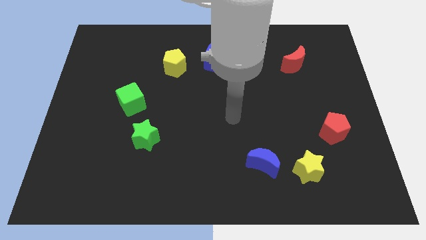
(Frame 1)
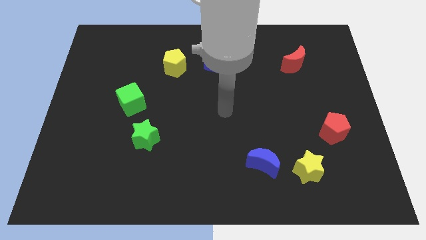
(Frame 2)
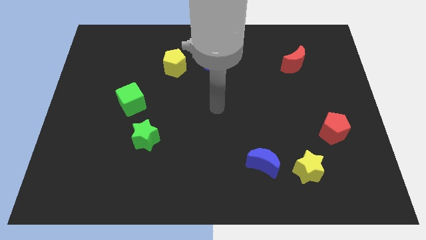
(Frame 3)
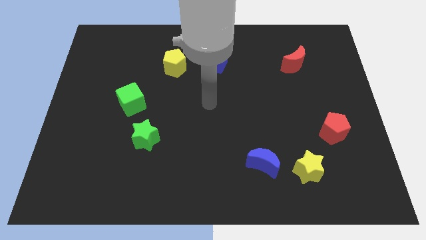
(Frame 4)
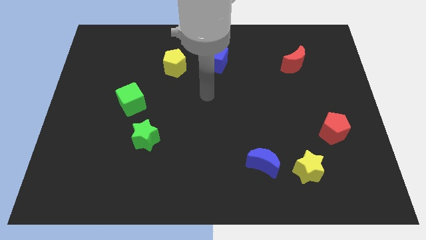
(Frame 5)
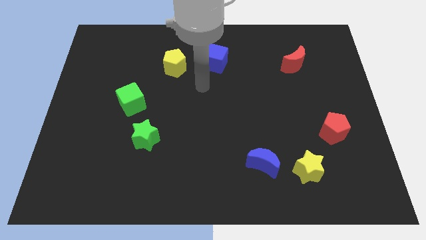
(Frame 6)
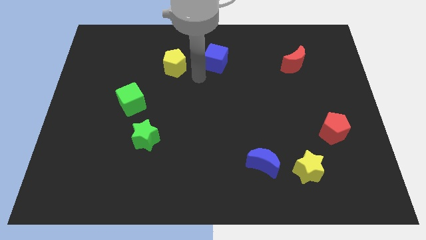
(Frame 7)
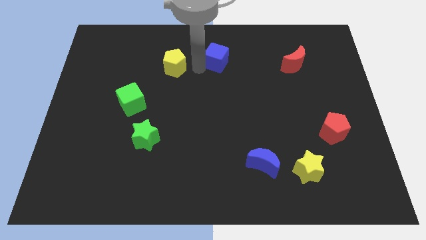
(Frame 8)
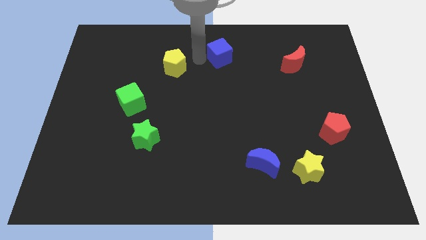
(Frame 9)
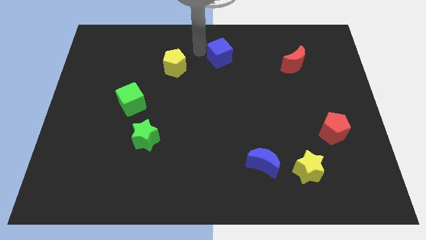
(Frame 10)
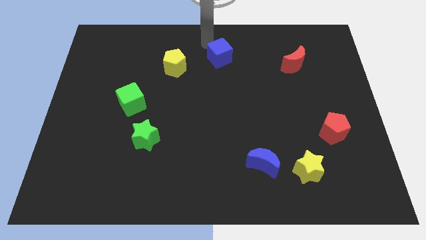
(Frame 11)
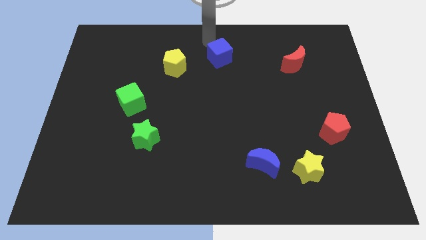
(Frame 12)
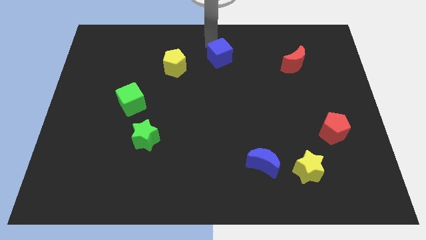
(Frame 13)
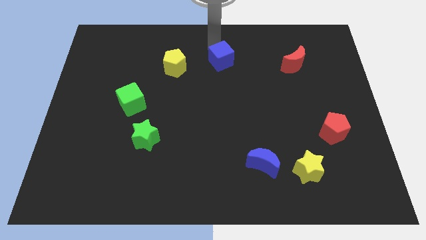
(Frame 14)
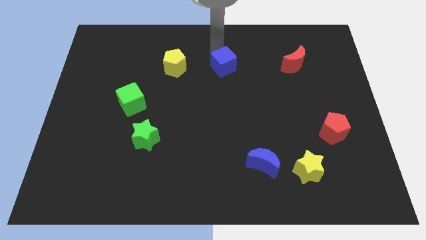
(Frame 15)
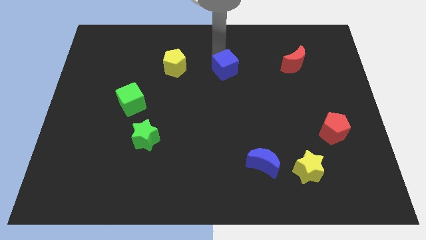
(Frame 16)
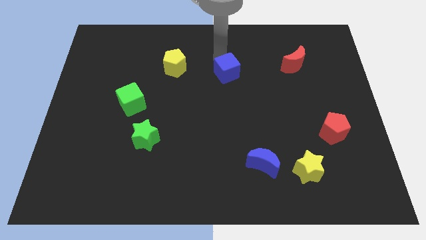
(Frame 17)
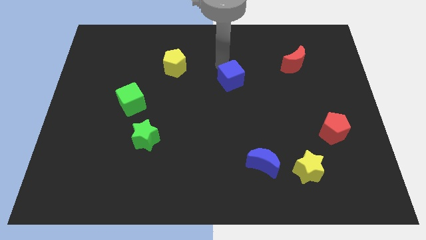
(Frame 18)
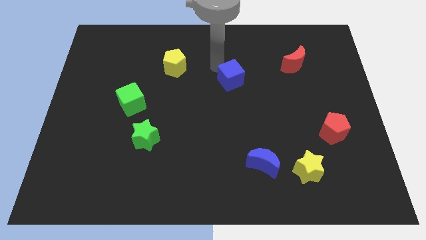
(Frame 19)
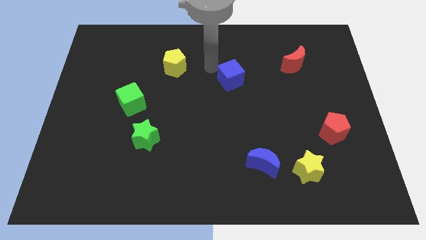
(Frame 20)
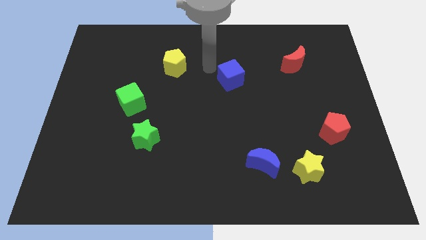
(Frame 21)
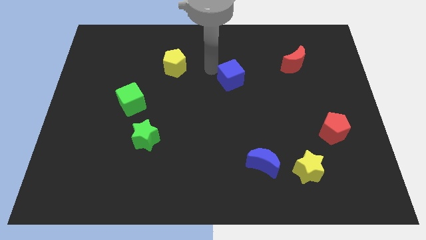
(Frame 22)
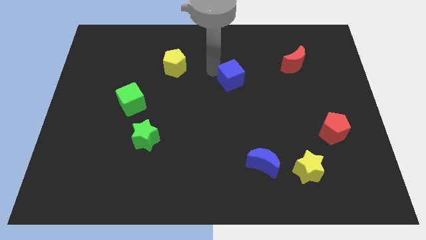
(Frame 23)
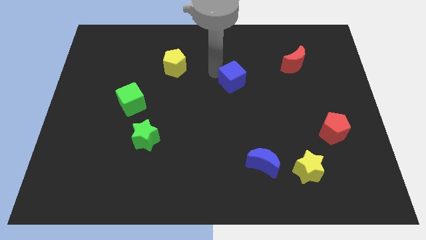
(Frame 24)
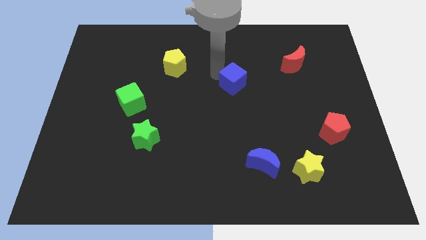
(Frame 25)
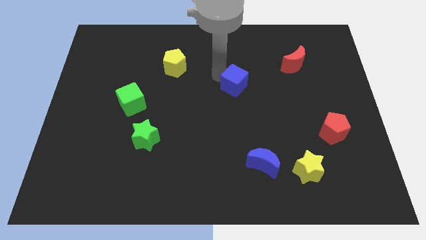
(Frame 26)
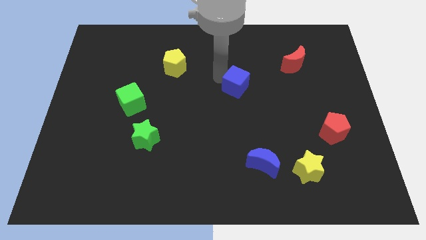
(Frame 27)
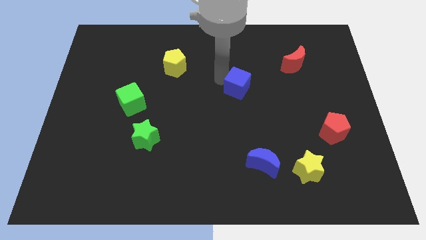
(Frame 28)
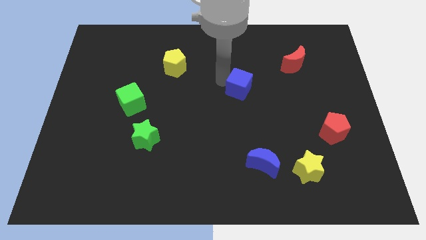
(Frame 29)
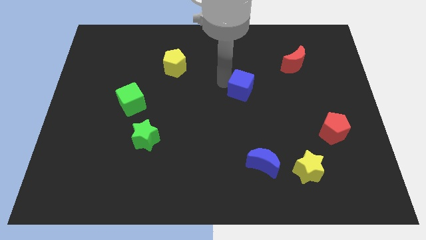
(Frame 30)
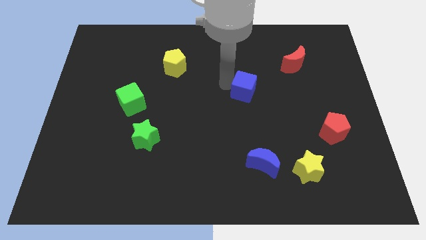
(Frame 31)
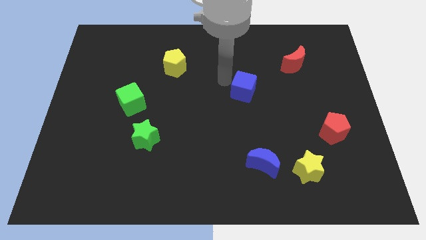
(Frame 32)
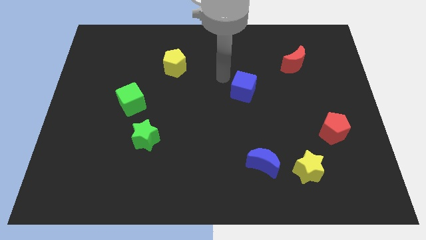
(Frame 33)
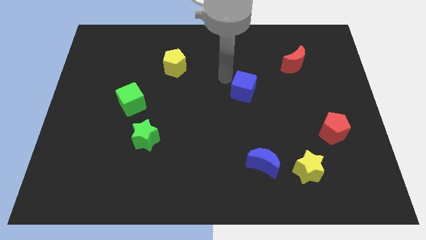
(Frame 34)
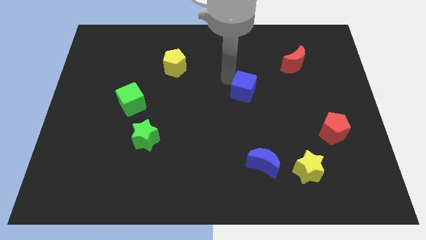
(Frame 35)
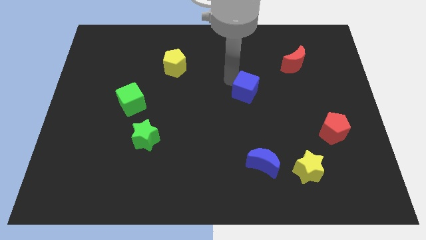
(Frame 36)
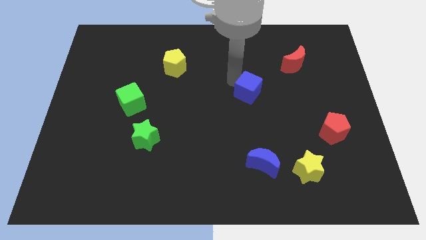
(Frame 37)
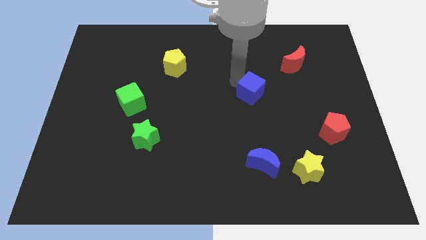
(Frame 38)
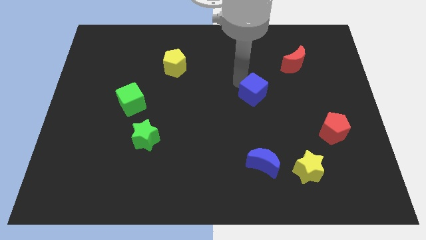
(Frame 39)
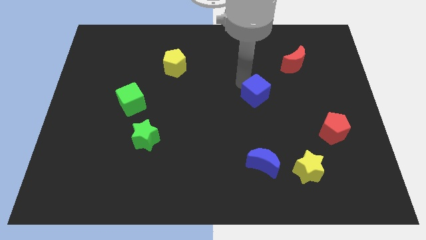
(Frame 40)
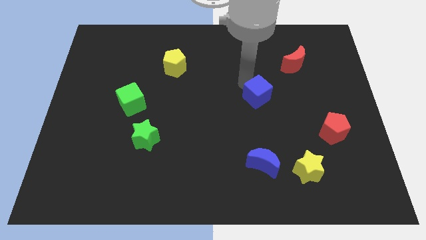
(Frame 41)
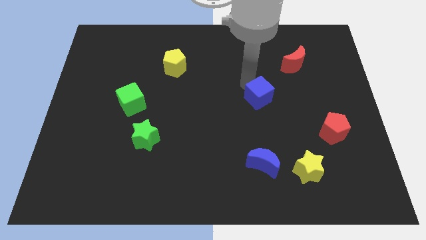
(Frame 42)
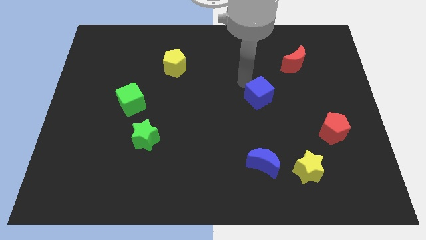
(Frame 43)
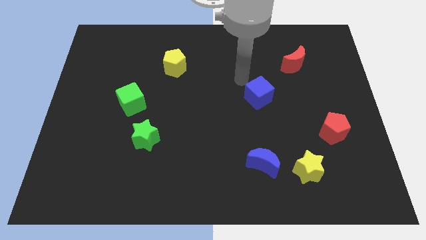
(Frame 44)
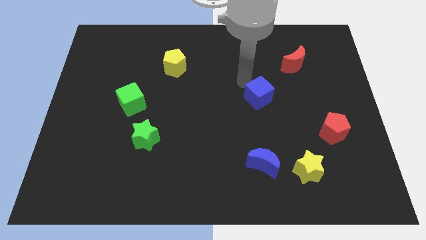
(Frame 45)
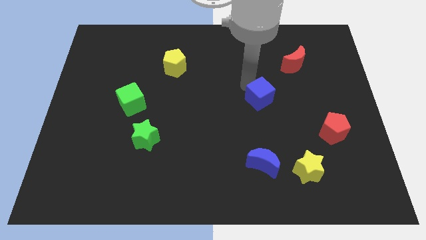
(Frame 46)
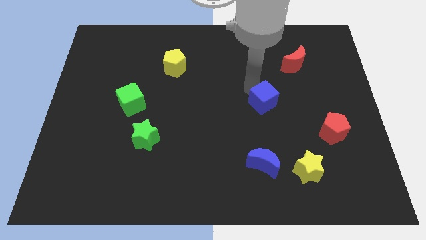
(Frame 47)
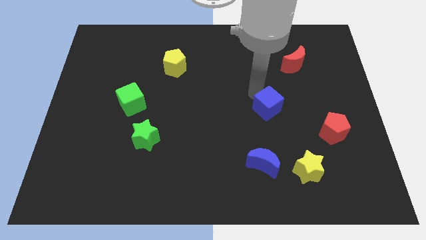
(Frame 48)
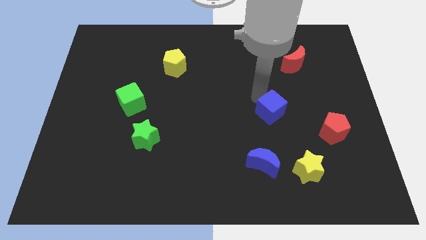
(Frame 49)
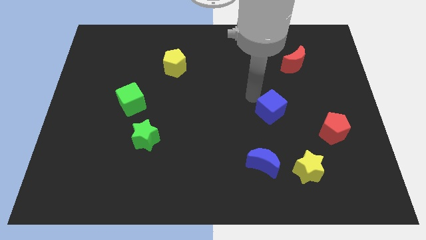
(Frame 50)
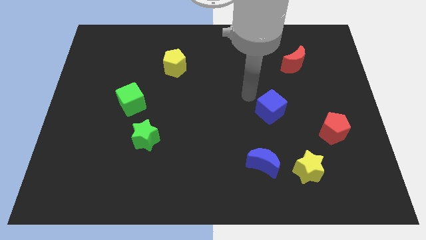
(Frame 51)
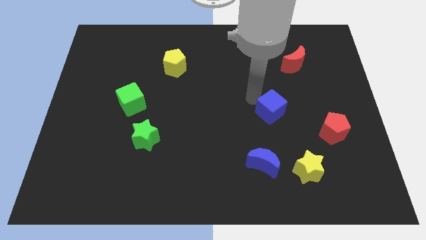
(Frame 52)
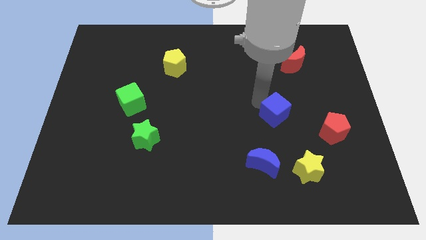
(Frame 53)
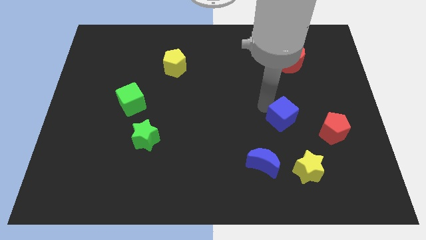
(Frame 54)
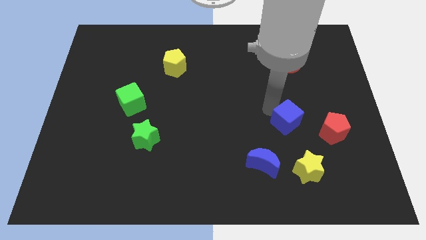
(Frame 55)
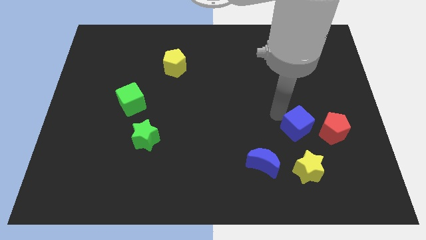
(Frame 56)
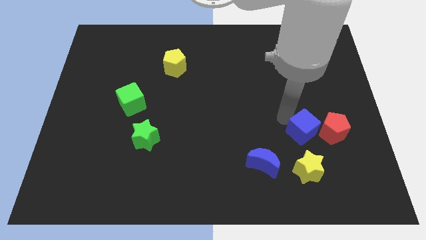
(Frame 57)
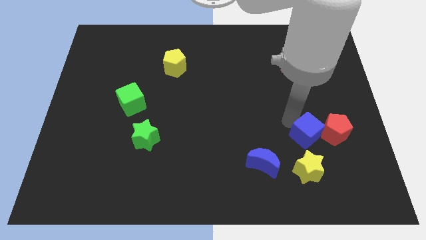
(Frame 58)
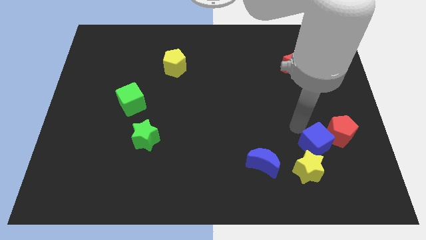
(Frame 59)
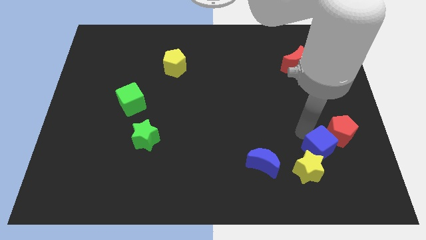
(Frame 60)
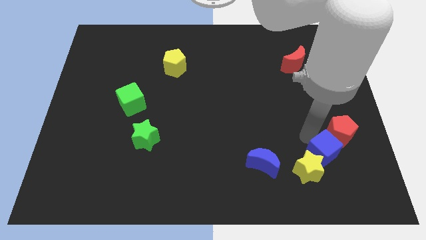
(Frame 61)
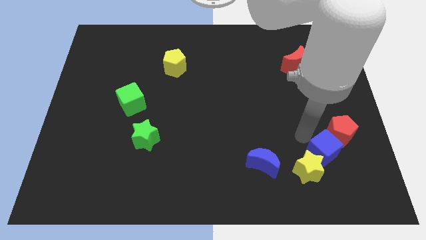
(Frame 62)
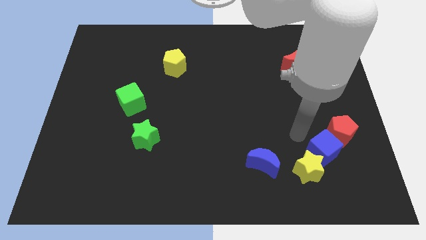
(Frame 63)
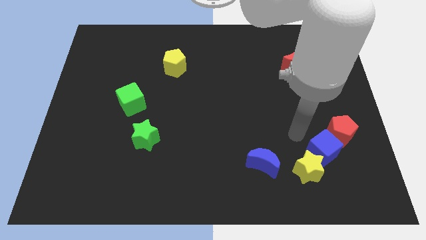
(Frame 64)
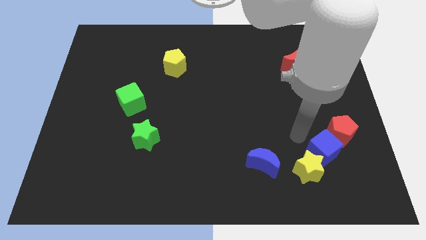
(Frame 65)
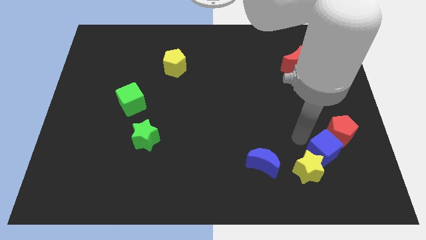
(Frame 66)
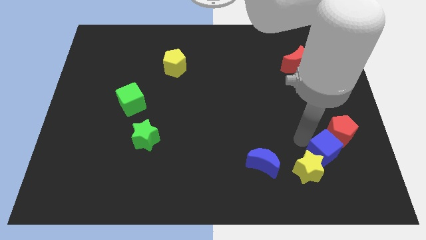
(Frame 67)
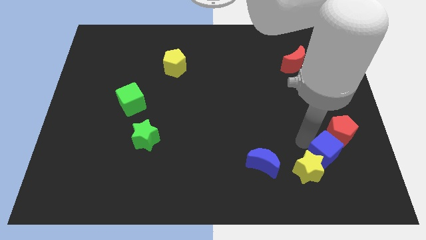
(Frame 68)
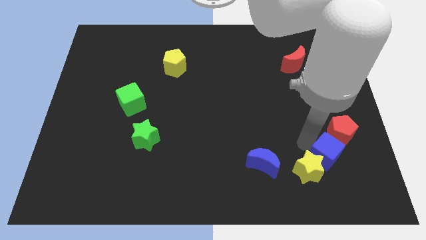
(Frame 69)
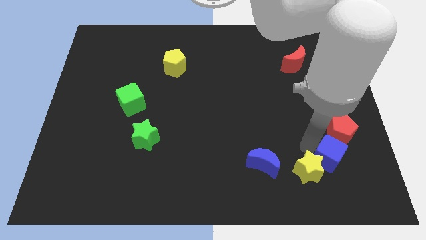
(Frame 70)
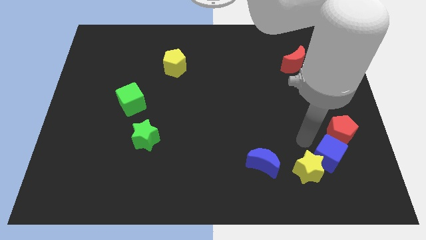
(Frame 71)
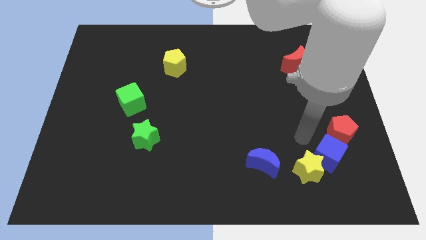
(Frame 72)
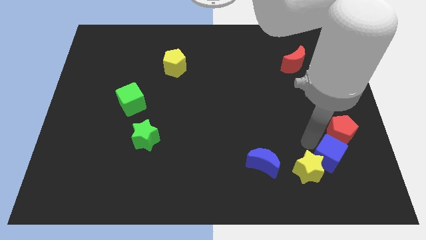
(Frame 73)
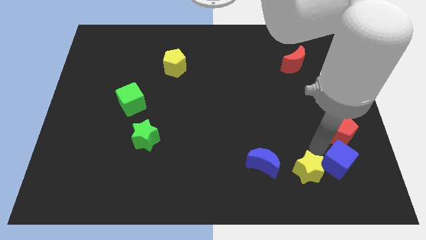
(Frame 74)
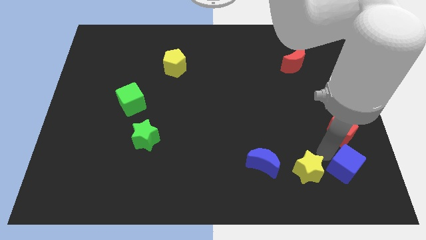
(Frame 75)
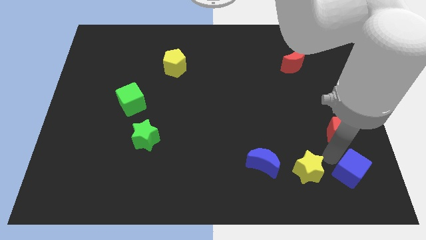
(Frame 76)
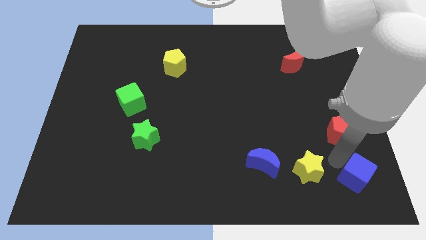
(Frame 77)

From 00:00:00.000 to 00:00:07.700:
push the blue cube to the bottom right of the board
